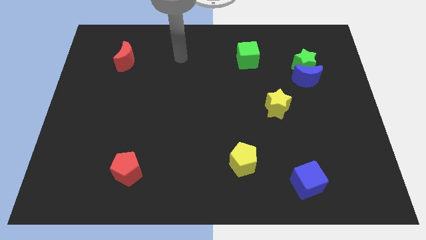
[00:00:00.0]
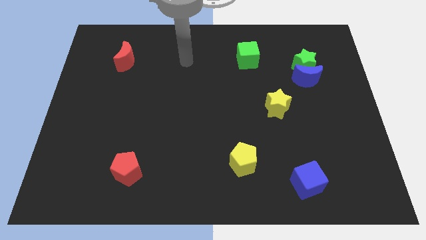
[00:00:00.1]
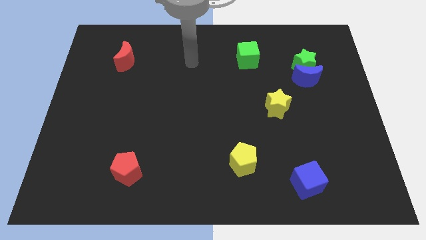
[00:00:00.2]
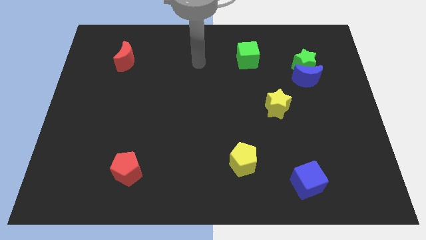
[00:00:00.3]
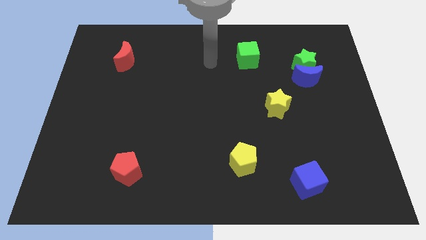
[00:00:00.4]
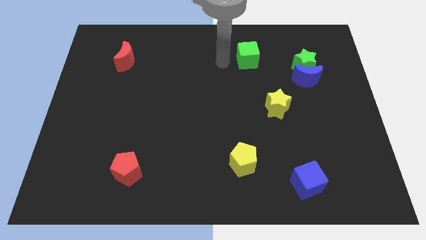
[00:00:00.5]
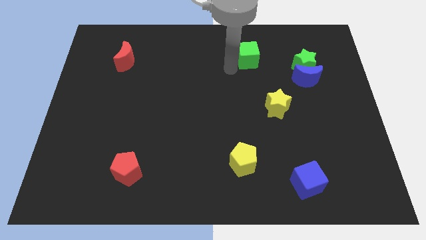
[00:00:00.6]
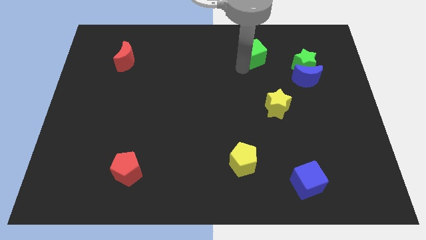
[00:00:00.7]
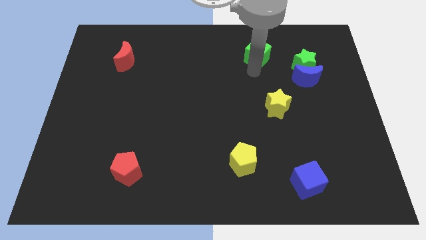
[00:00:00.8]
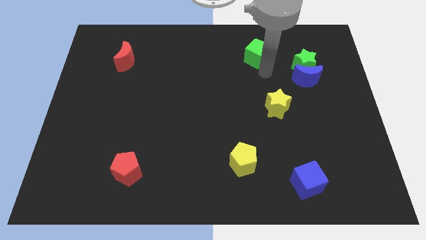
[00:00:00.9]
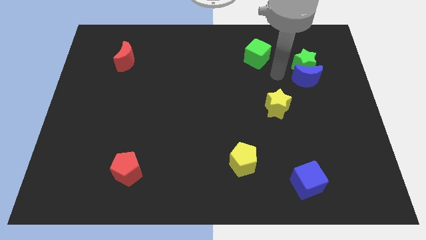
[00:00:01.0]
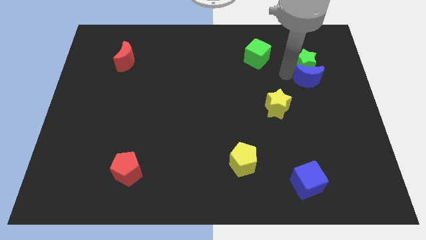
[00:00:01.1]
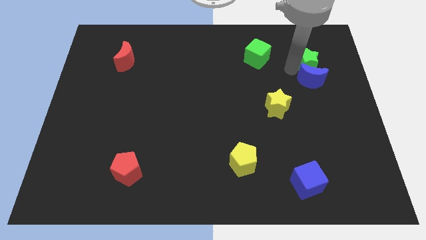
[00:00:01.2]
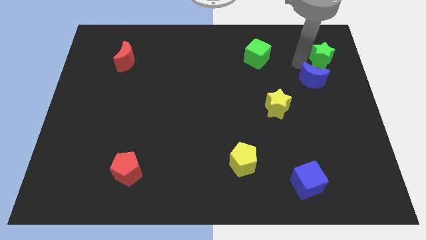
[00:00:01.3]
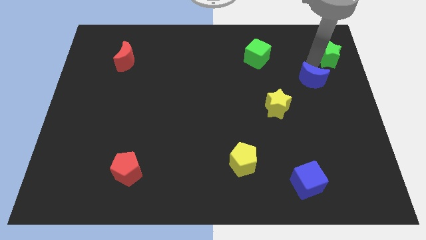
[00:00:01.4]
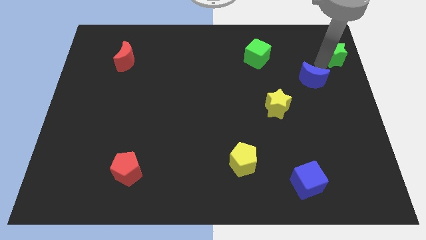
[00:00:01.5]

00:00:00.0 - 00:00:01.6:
move the blue moon away from the green star

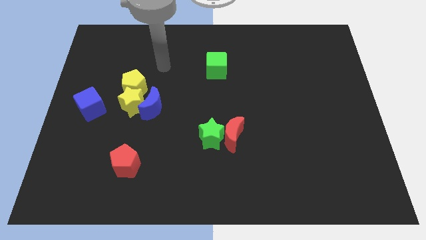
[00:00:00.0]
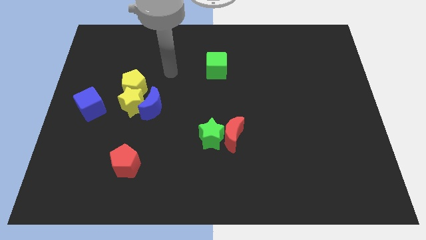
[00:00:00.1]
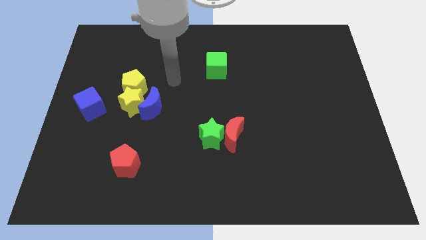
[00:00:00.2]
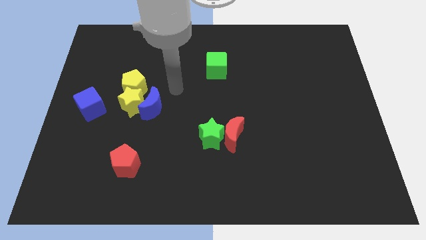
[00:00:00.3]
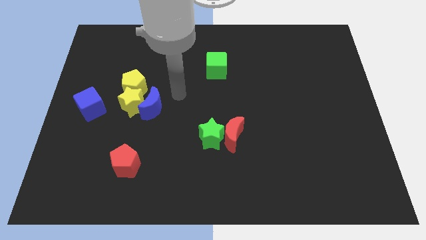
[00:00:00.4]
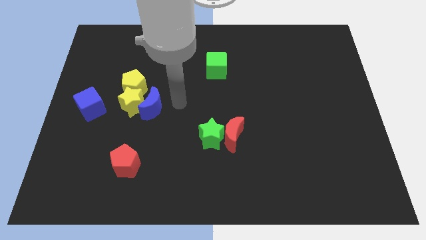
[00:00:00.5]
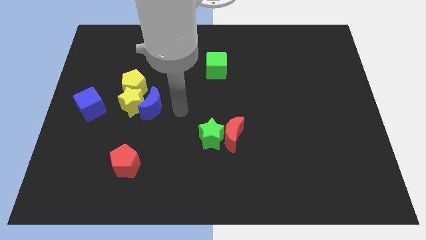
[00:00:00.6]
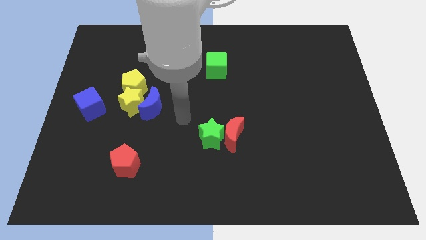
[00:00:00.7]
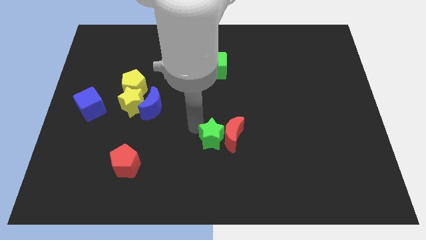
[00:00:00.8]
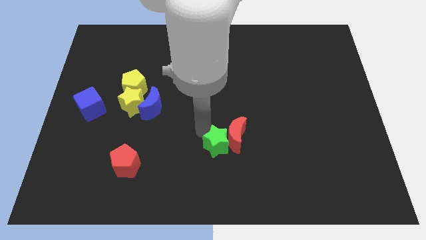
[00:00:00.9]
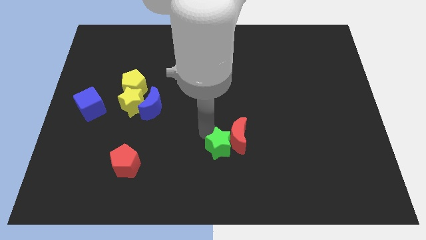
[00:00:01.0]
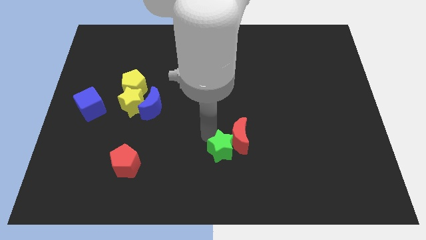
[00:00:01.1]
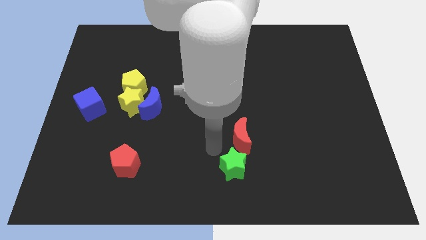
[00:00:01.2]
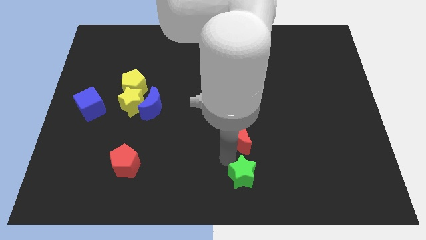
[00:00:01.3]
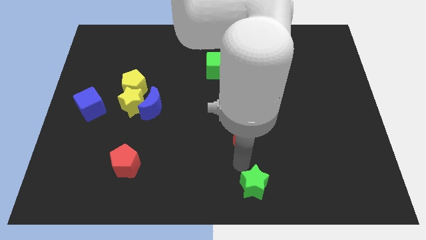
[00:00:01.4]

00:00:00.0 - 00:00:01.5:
separate the red moon from the green star

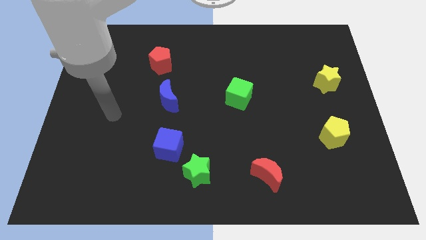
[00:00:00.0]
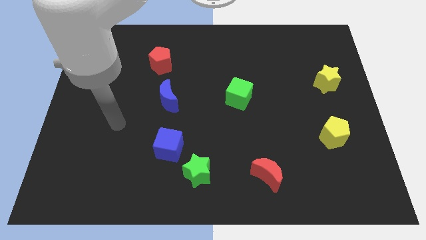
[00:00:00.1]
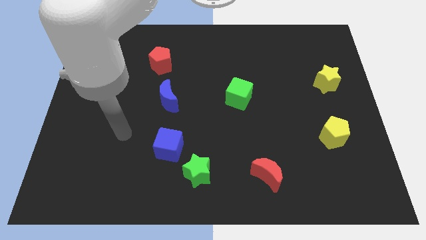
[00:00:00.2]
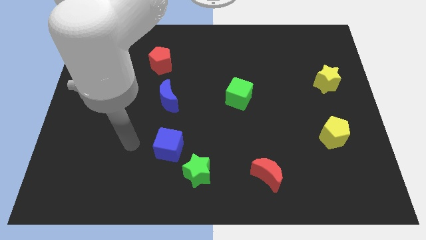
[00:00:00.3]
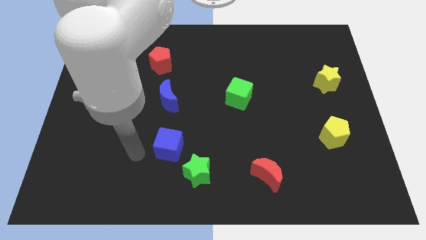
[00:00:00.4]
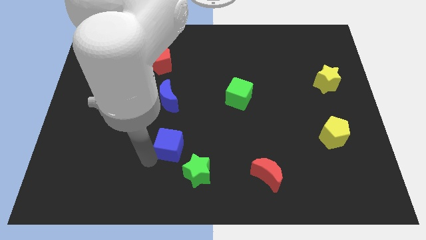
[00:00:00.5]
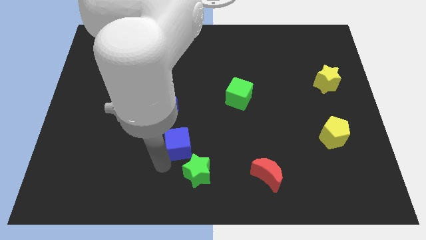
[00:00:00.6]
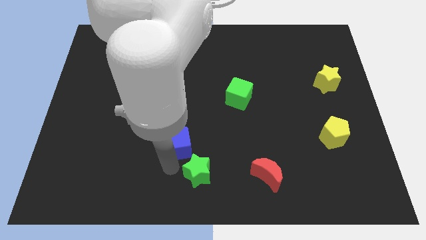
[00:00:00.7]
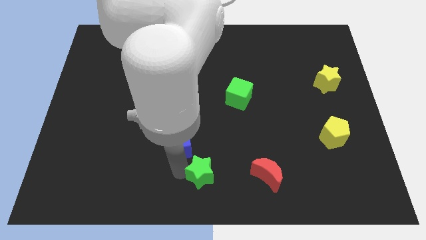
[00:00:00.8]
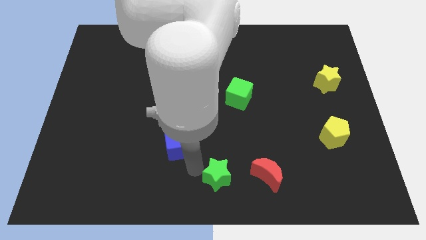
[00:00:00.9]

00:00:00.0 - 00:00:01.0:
move the blue cube away from the green star

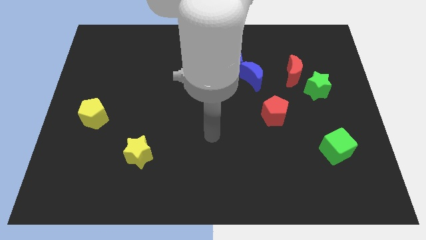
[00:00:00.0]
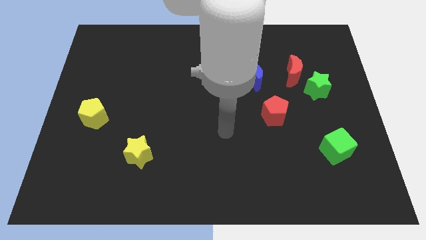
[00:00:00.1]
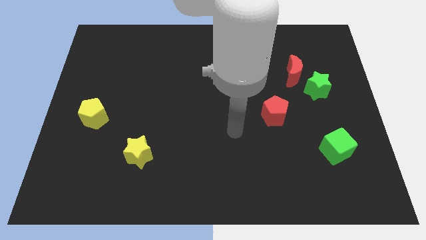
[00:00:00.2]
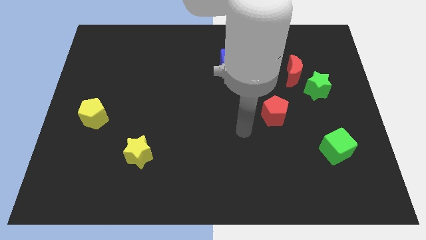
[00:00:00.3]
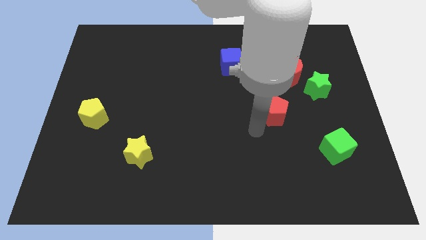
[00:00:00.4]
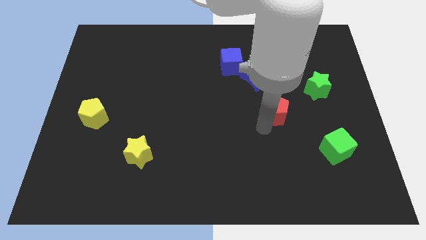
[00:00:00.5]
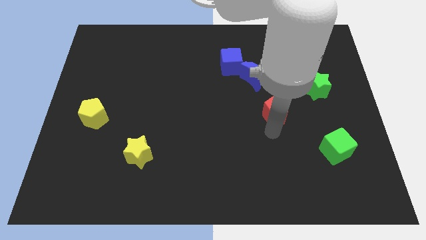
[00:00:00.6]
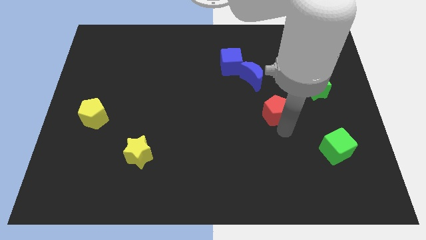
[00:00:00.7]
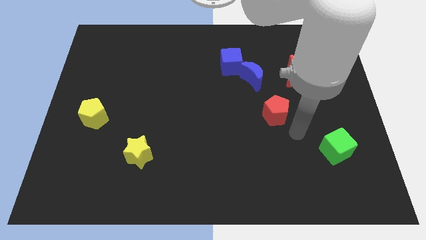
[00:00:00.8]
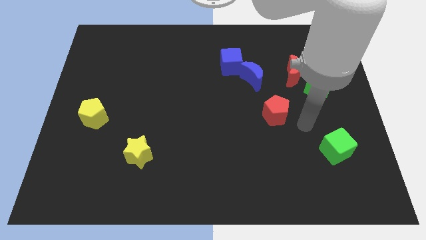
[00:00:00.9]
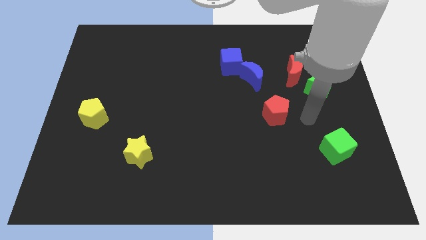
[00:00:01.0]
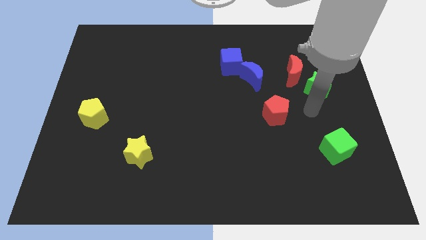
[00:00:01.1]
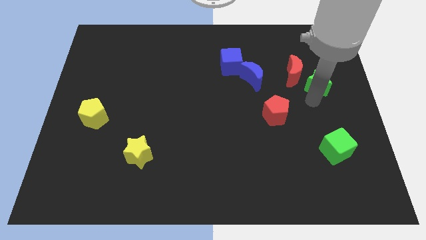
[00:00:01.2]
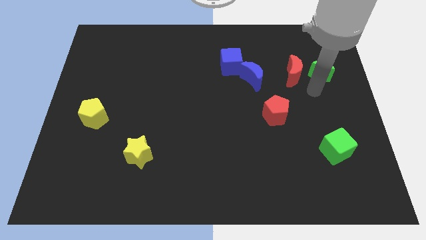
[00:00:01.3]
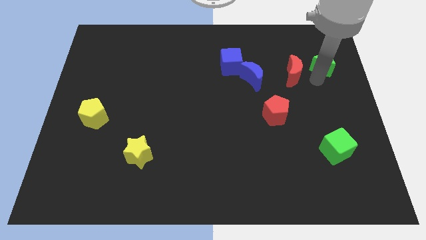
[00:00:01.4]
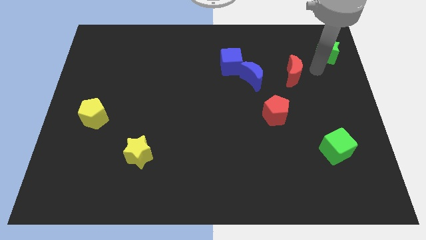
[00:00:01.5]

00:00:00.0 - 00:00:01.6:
pull the red moon apart from the green star

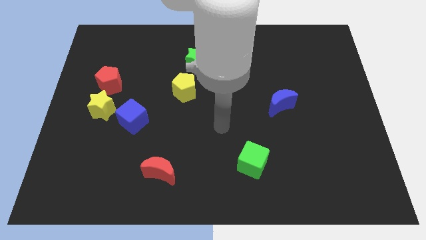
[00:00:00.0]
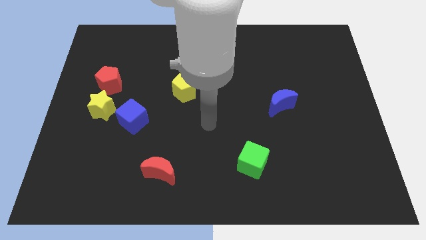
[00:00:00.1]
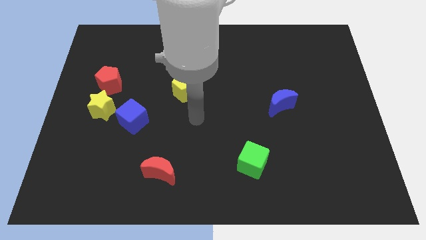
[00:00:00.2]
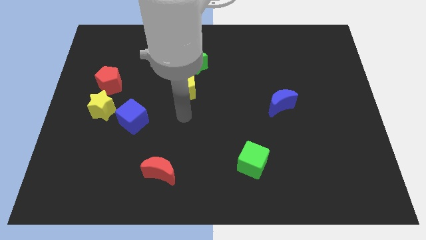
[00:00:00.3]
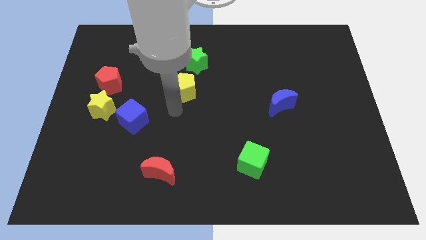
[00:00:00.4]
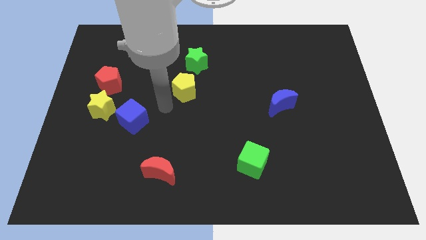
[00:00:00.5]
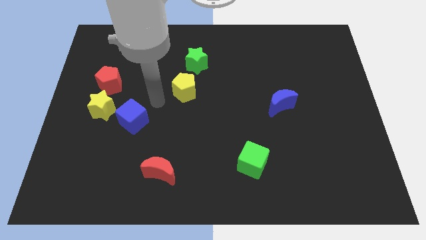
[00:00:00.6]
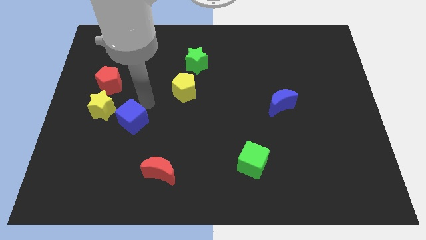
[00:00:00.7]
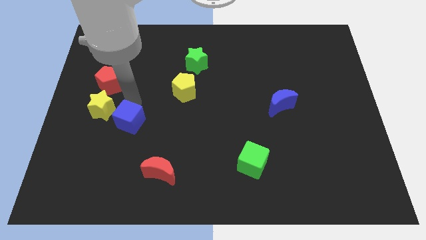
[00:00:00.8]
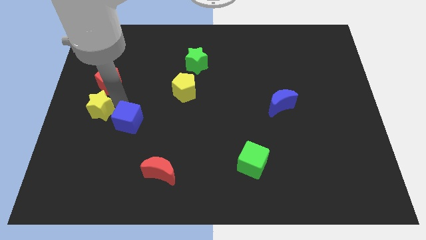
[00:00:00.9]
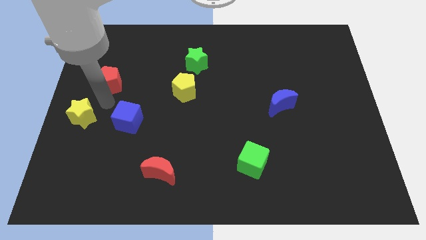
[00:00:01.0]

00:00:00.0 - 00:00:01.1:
separate the red pentagon from the yellow star

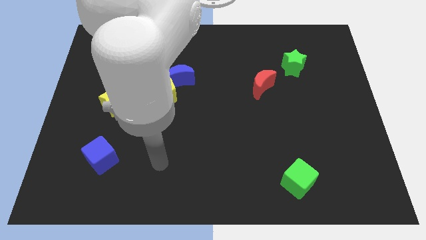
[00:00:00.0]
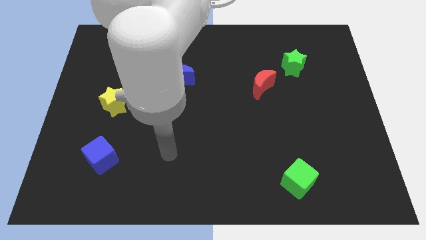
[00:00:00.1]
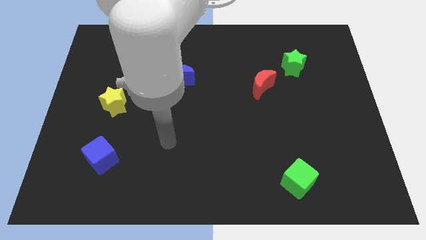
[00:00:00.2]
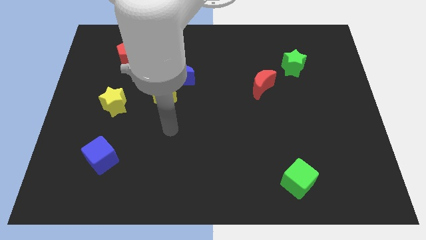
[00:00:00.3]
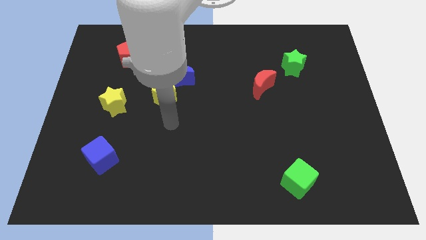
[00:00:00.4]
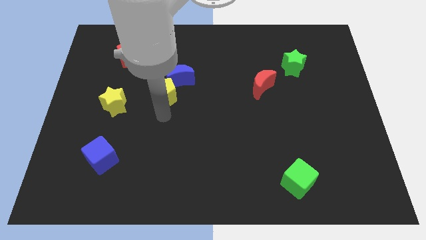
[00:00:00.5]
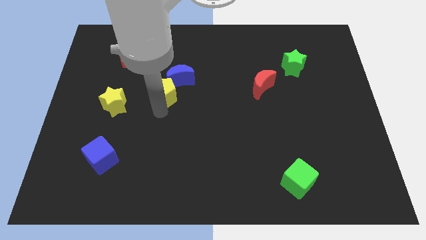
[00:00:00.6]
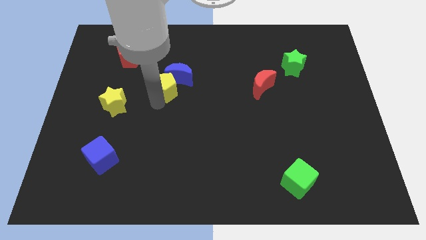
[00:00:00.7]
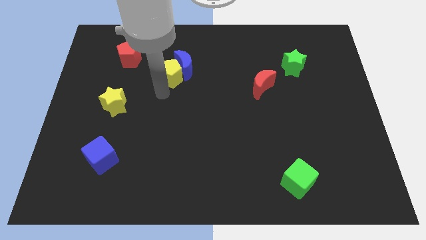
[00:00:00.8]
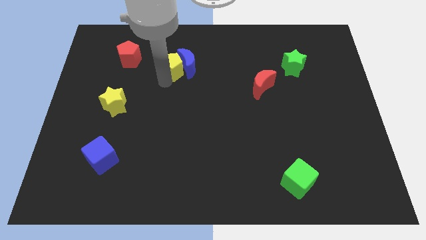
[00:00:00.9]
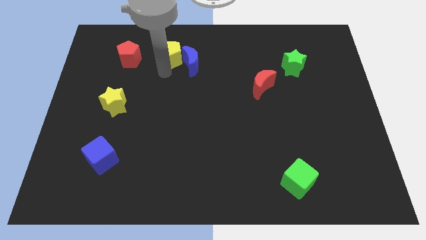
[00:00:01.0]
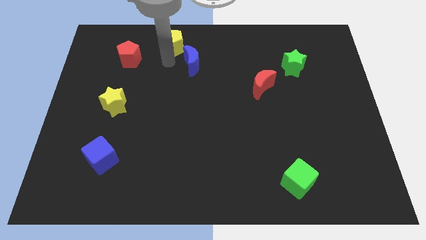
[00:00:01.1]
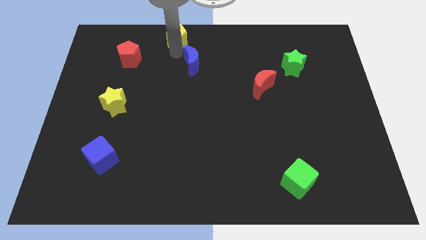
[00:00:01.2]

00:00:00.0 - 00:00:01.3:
move the blue moon away from the yellow pentagon

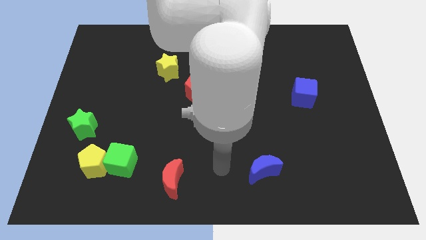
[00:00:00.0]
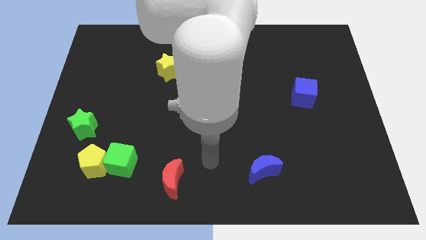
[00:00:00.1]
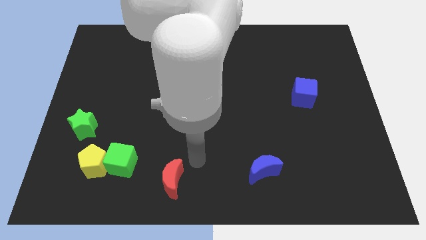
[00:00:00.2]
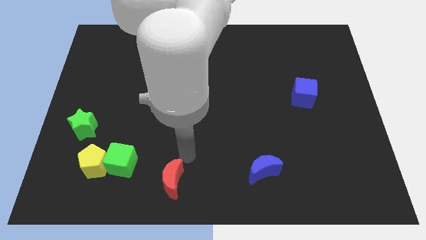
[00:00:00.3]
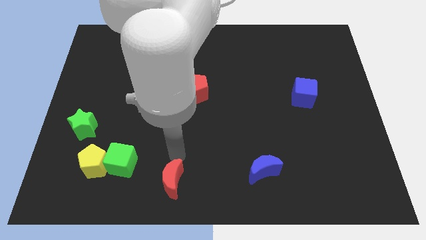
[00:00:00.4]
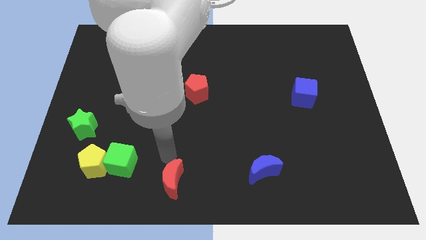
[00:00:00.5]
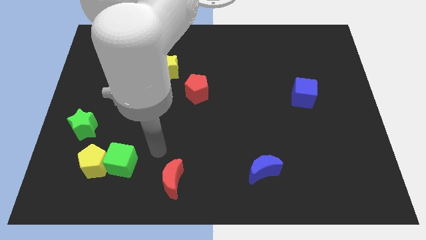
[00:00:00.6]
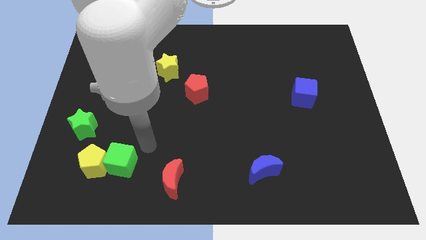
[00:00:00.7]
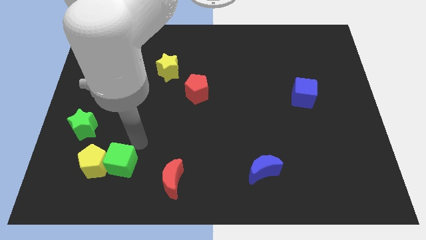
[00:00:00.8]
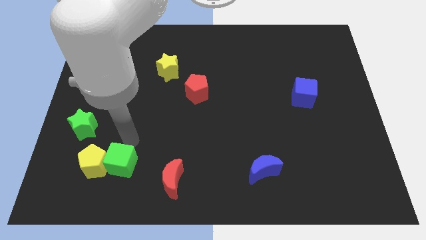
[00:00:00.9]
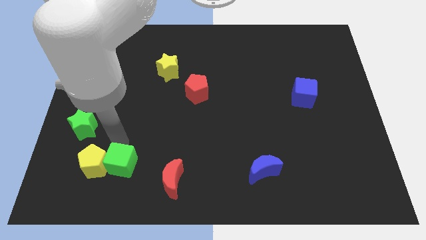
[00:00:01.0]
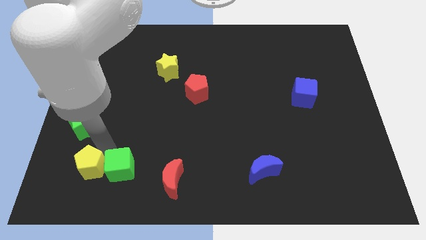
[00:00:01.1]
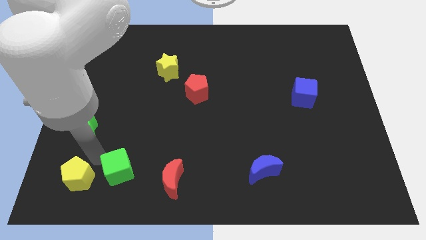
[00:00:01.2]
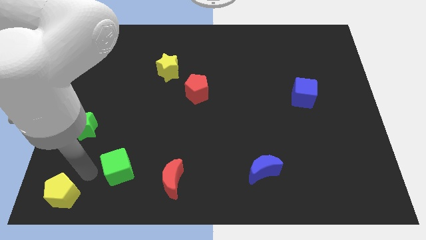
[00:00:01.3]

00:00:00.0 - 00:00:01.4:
pull the green cube apart from the yellow pentagon
